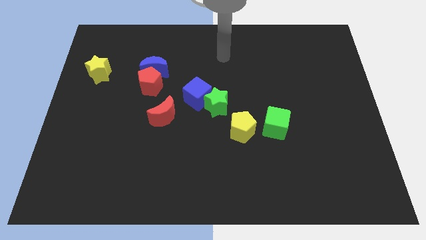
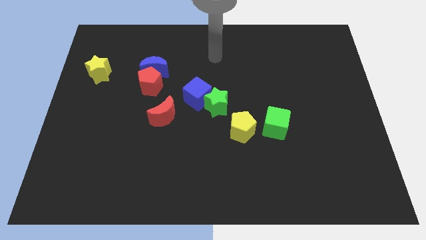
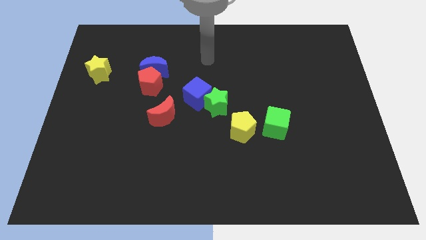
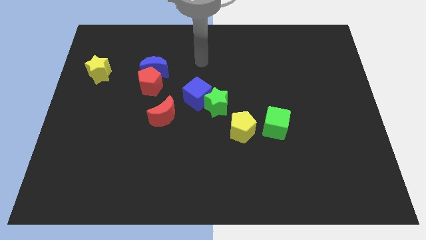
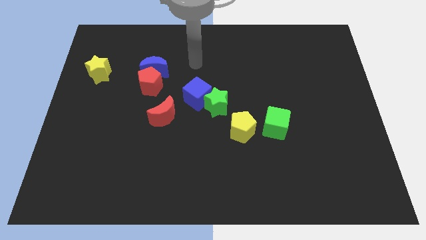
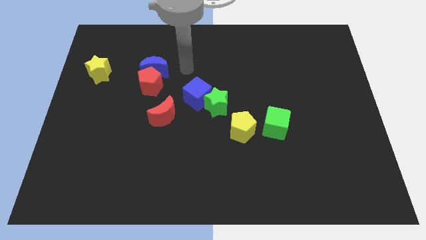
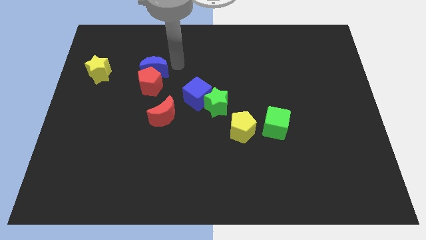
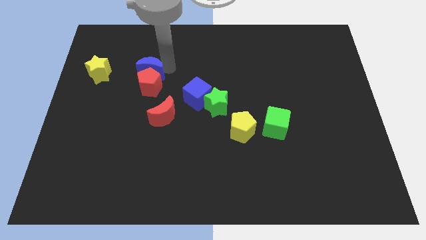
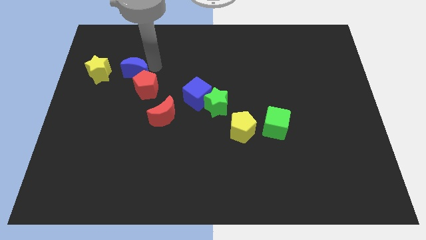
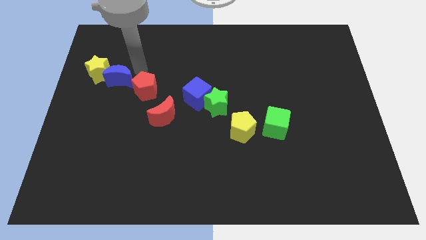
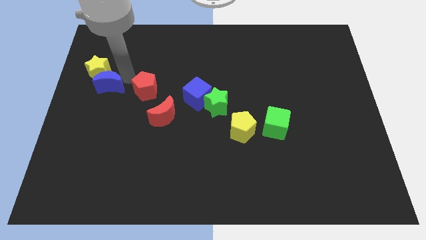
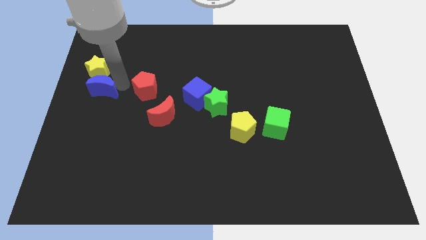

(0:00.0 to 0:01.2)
pull the red pentagon apart from the blue moon

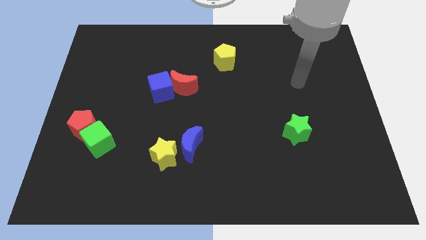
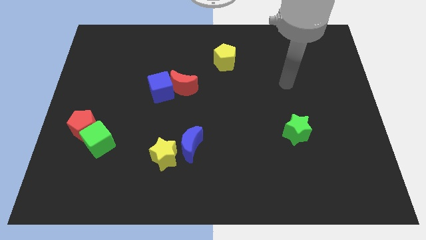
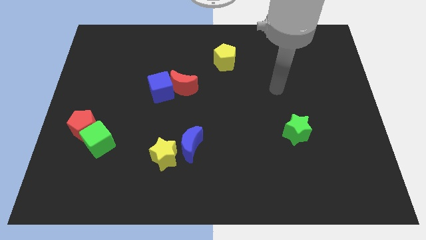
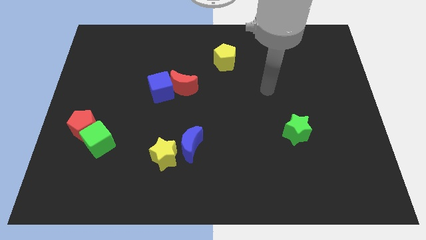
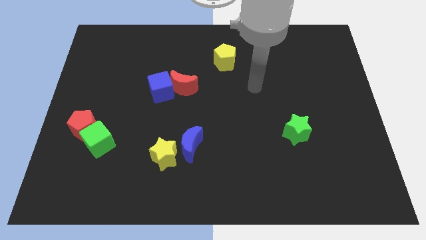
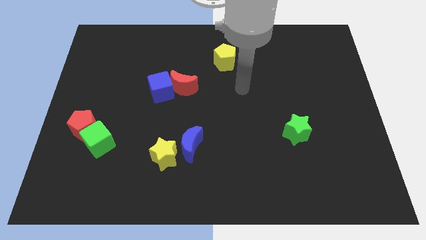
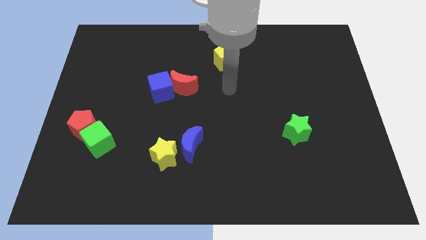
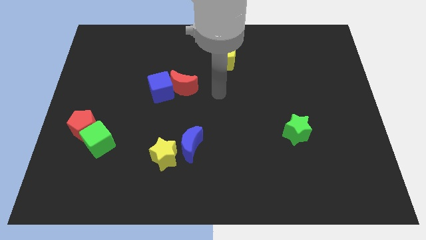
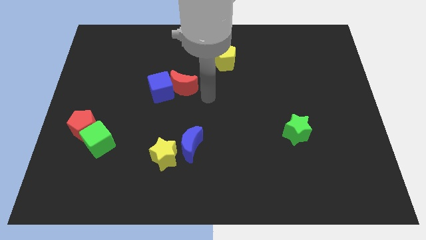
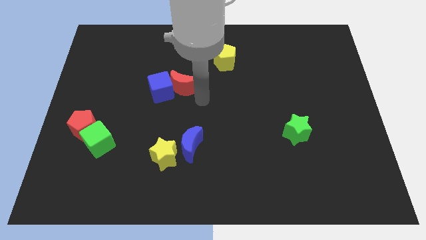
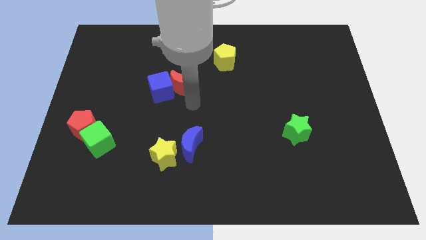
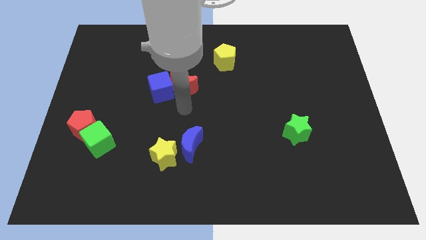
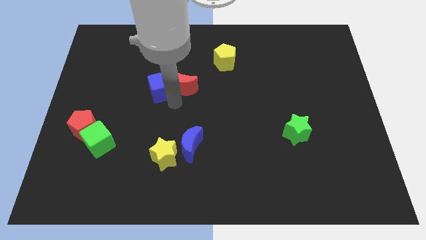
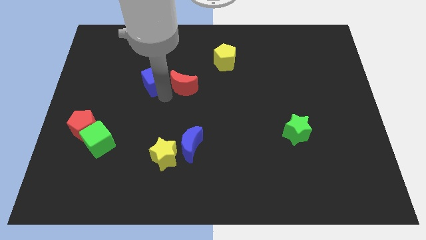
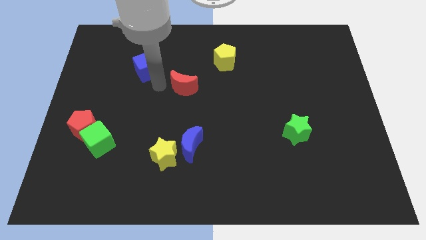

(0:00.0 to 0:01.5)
move the red moon away from the blue cube

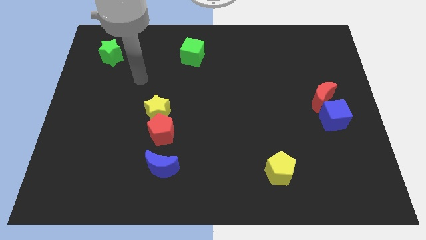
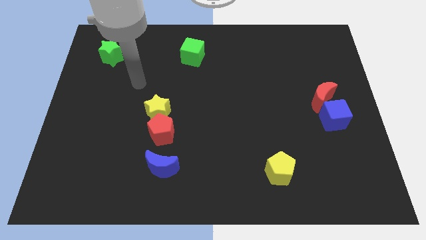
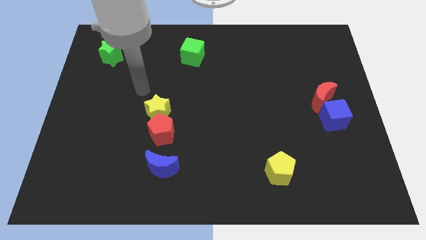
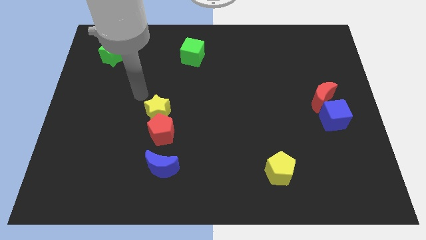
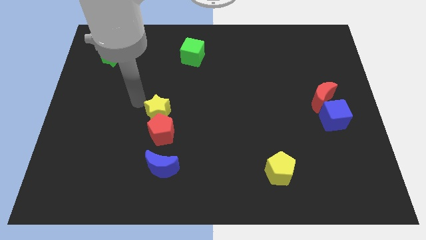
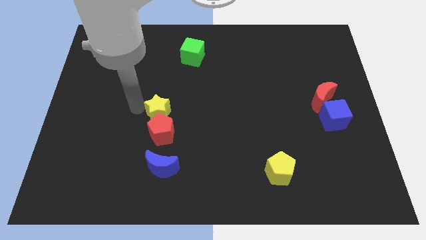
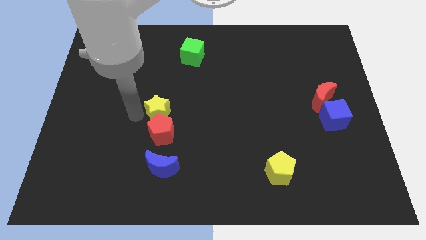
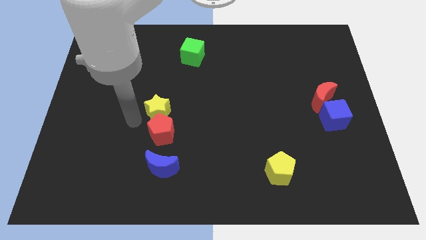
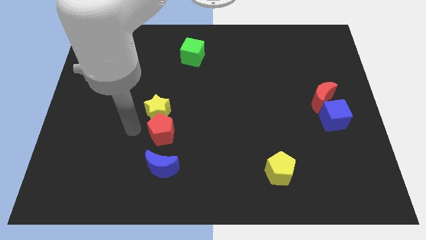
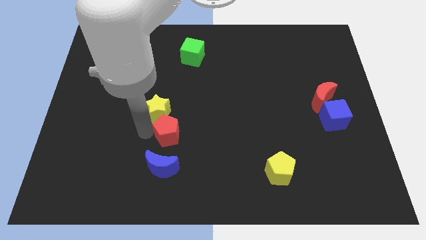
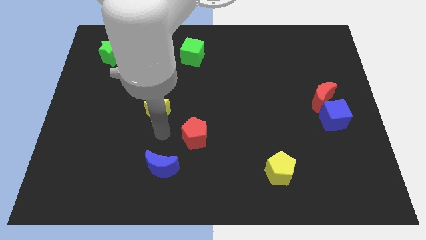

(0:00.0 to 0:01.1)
separate the yellow star from the red pentagon

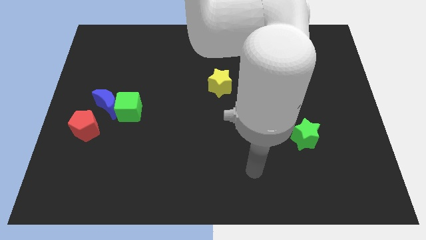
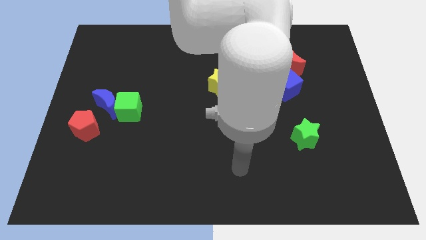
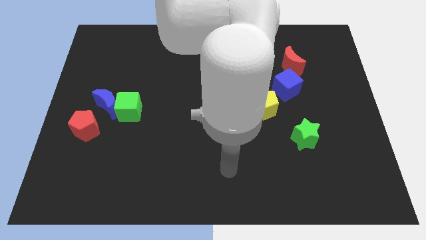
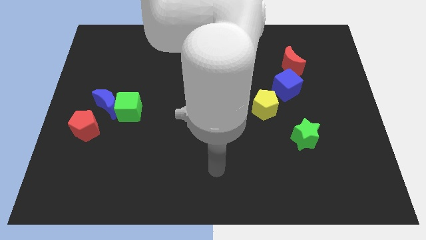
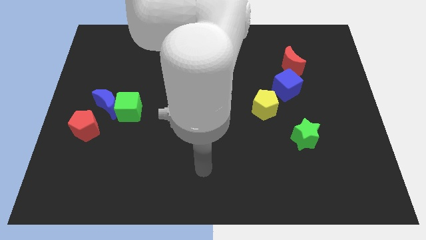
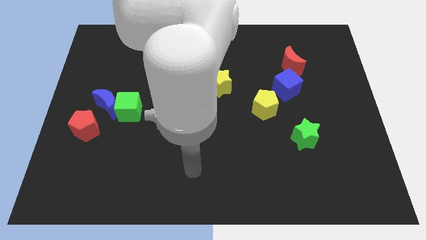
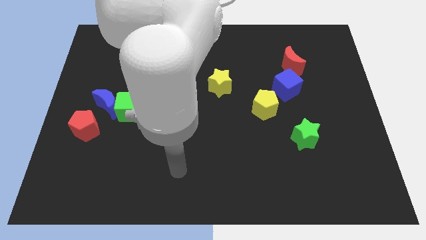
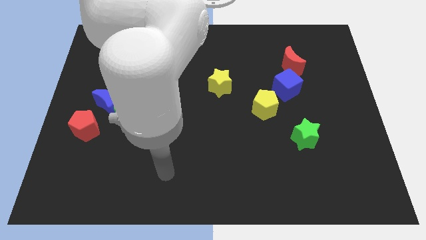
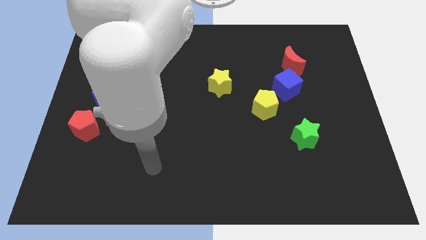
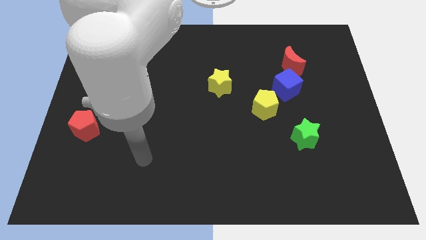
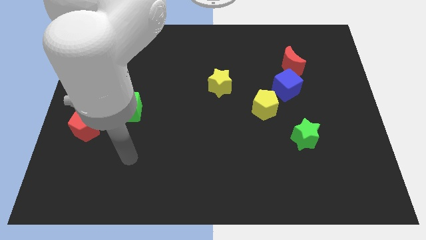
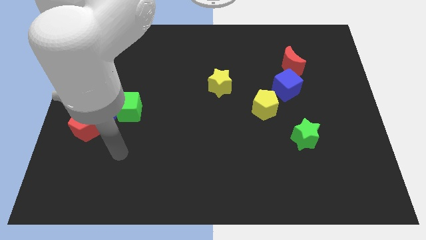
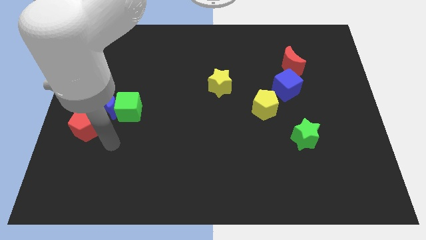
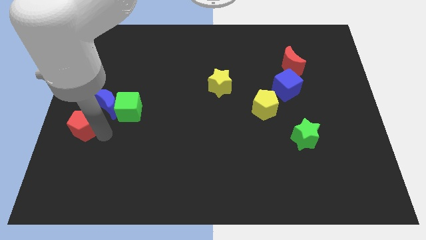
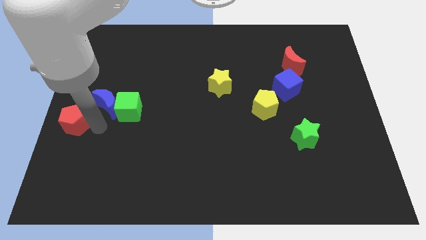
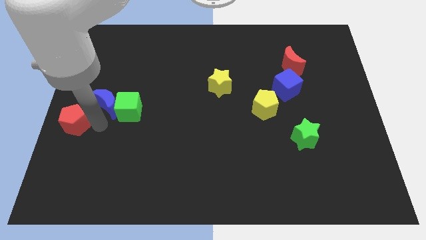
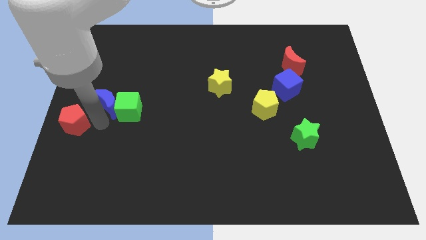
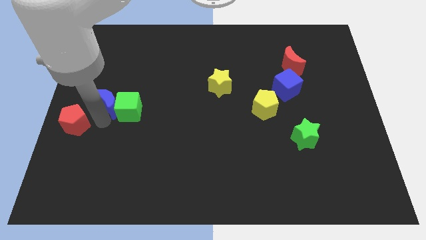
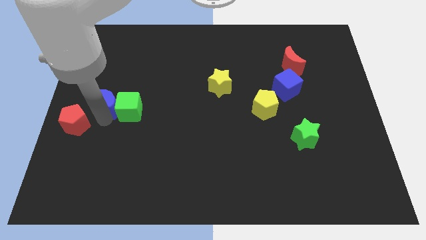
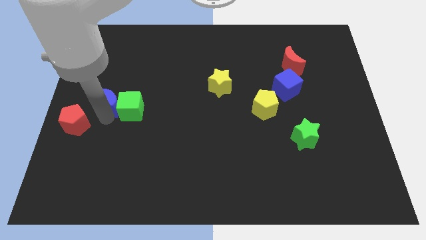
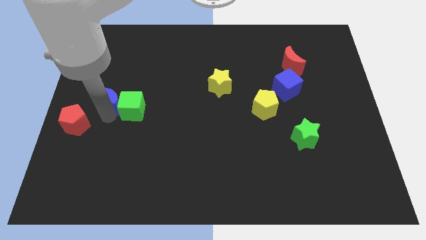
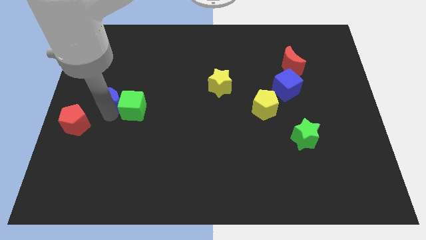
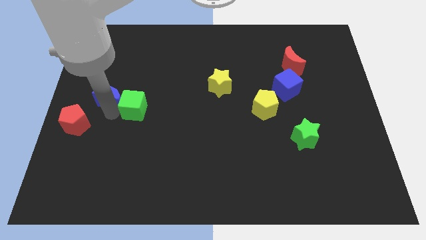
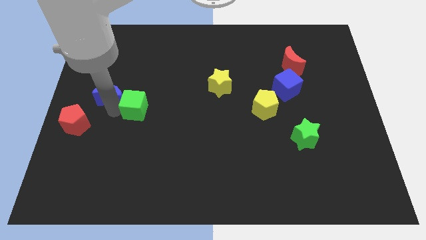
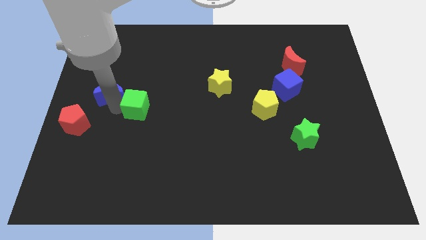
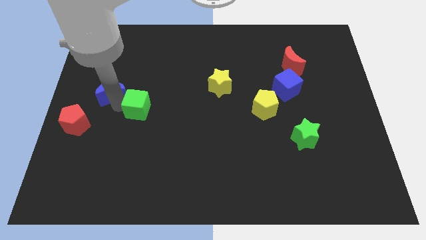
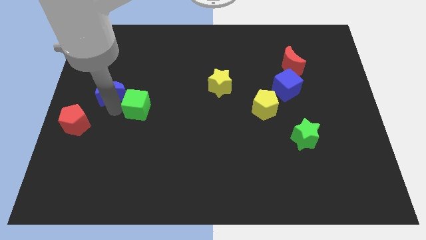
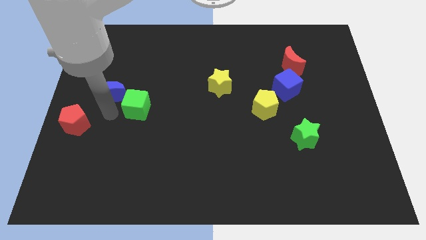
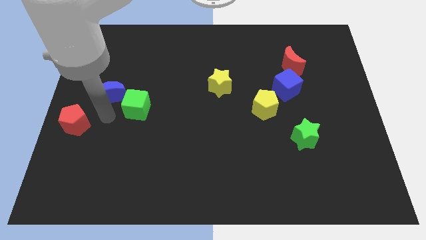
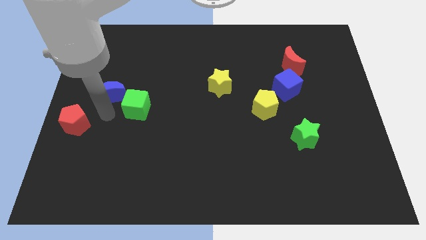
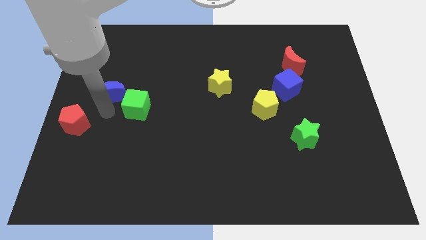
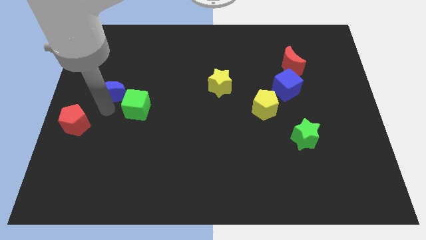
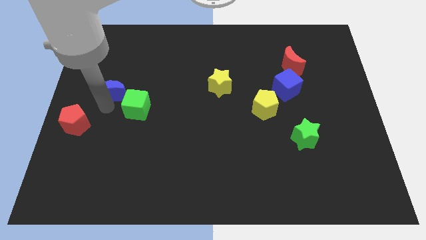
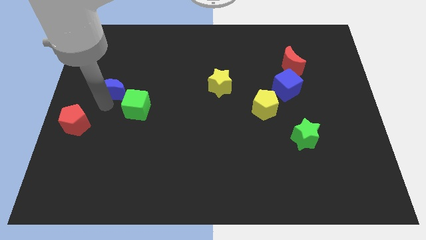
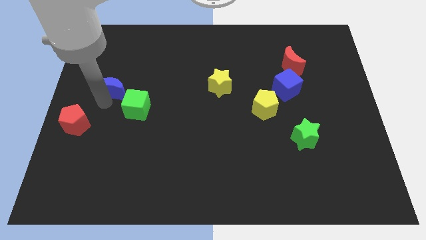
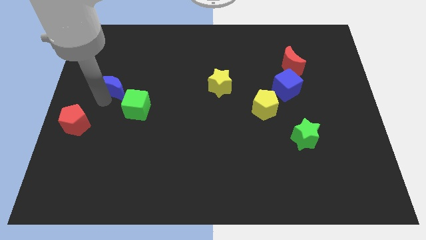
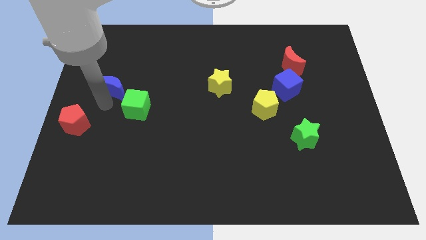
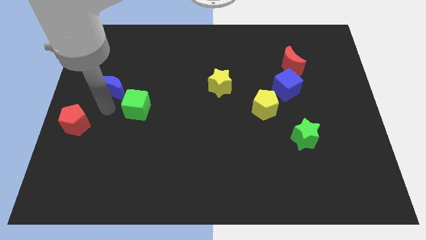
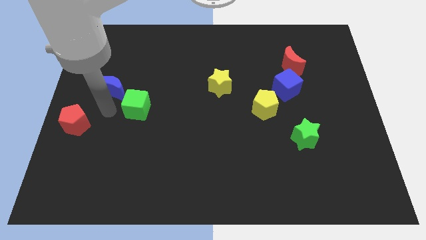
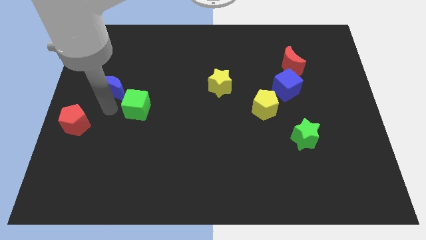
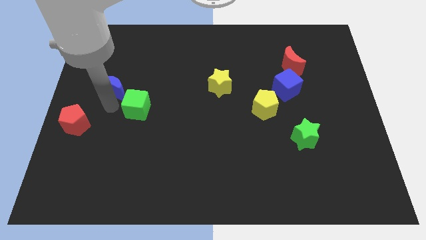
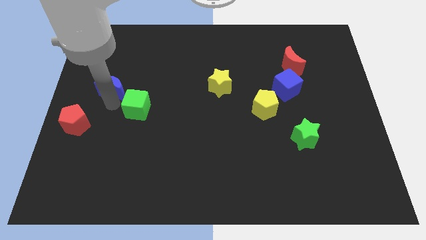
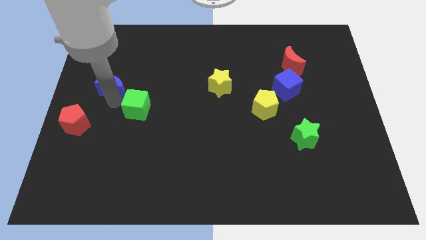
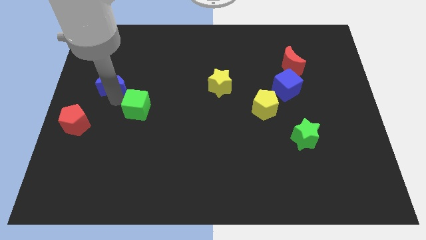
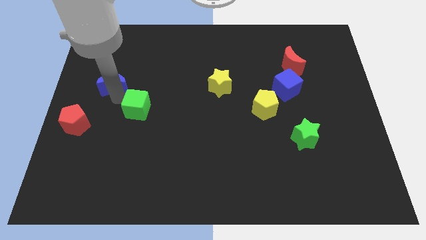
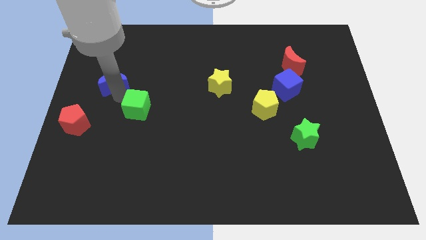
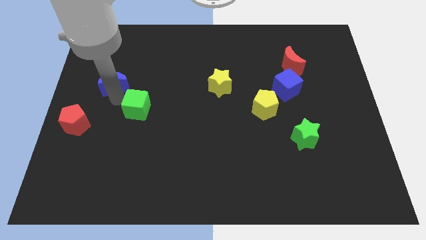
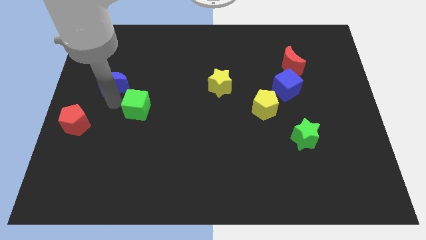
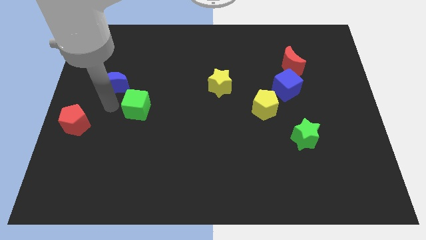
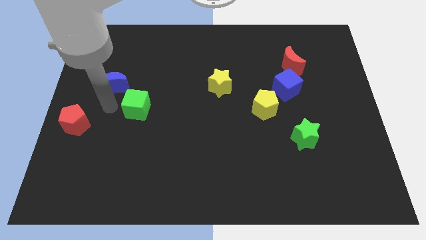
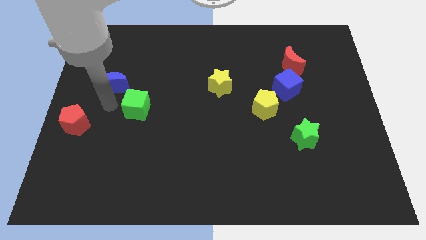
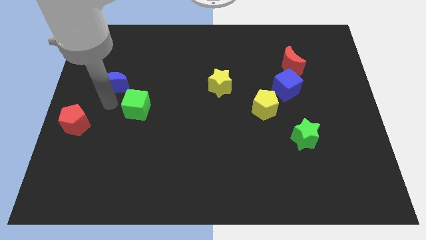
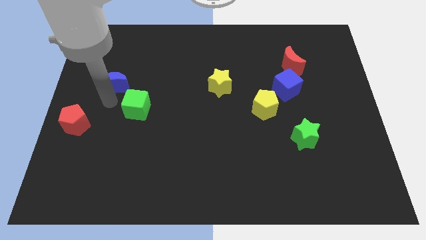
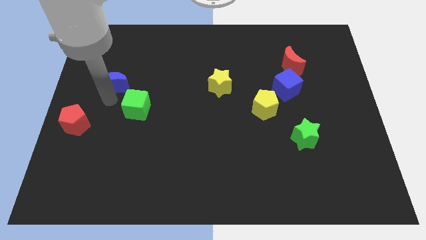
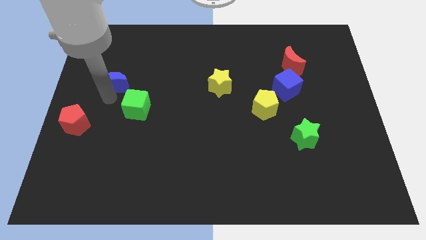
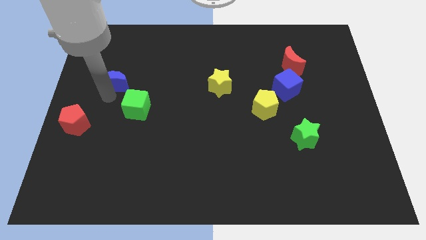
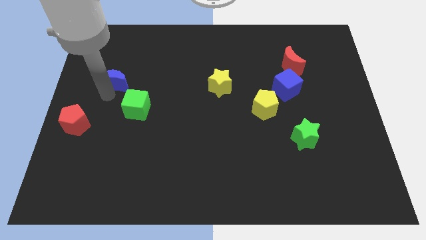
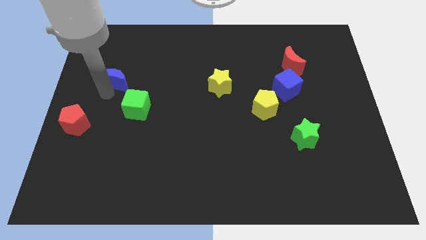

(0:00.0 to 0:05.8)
move the blue moon away from the green cube and red pentagon
